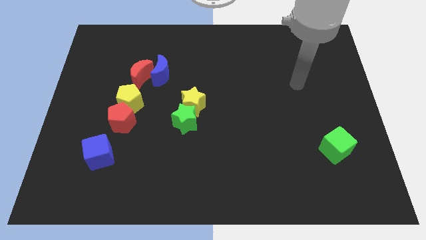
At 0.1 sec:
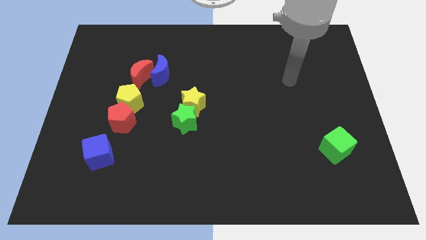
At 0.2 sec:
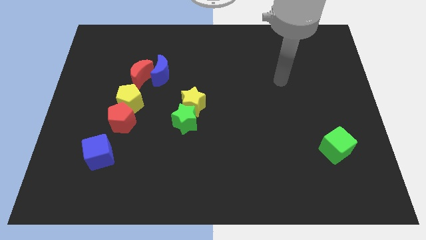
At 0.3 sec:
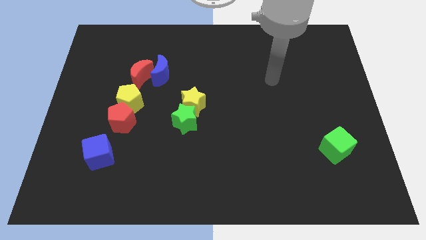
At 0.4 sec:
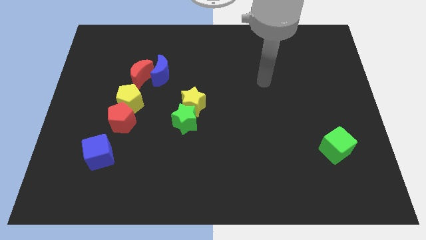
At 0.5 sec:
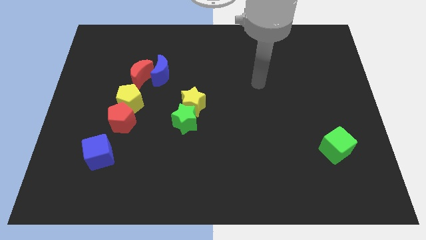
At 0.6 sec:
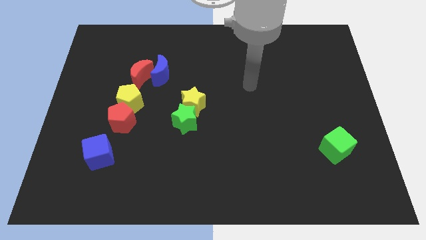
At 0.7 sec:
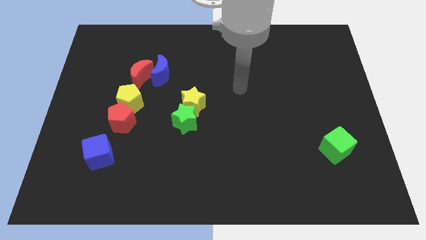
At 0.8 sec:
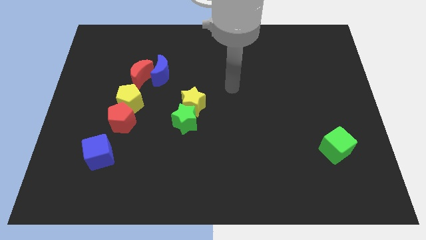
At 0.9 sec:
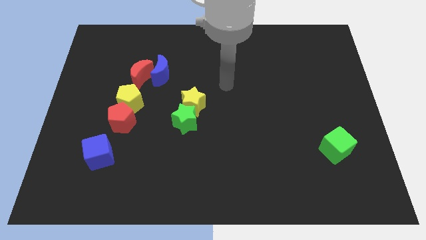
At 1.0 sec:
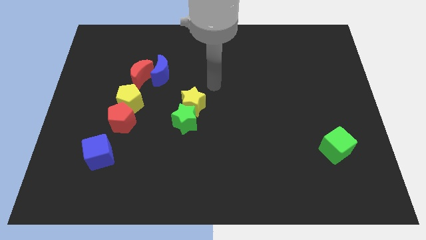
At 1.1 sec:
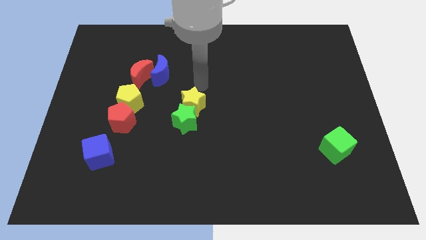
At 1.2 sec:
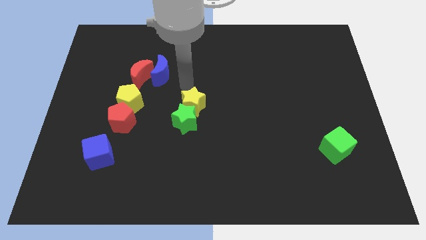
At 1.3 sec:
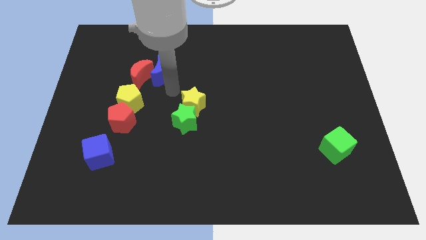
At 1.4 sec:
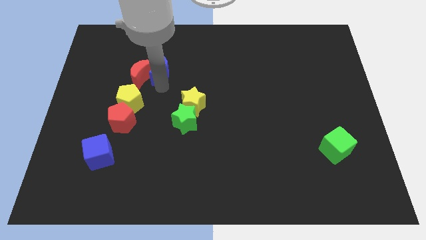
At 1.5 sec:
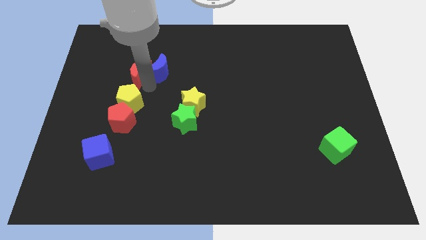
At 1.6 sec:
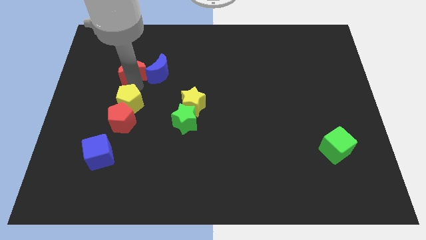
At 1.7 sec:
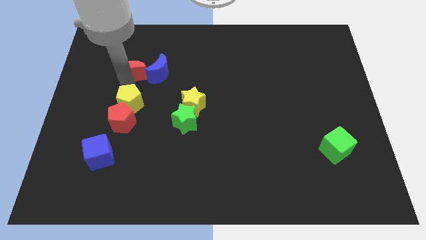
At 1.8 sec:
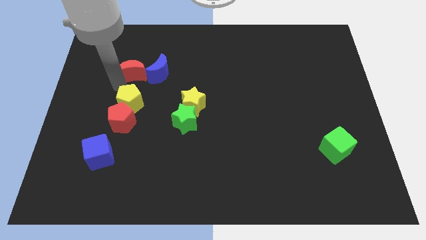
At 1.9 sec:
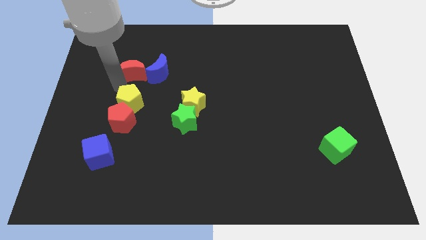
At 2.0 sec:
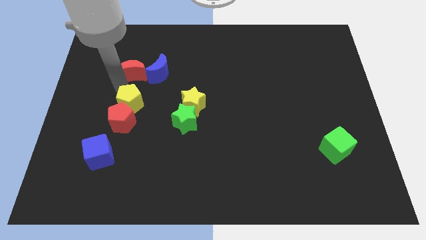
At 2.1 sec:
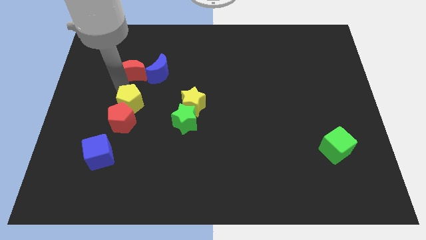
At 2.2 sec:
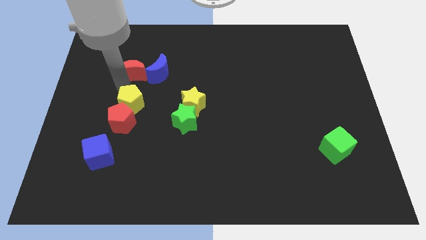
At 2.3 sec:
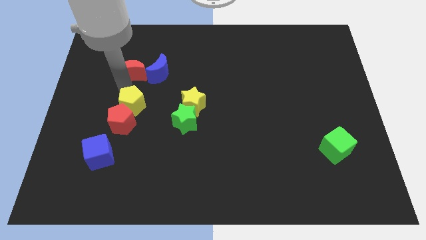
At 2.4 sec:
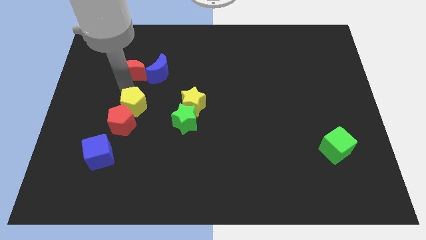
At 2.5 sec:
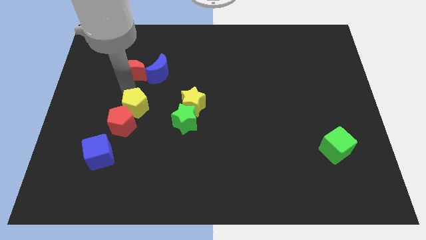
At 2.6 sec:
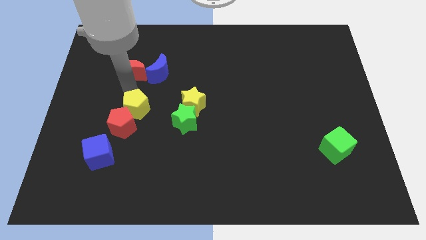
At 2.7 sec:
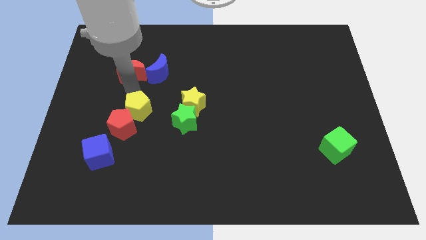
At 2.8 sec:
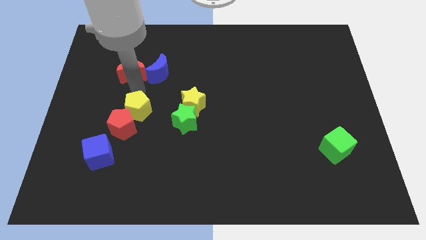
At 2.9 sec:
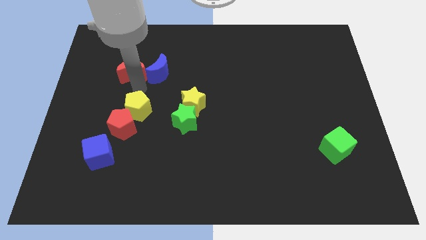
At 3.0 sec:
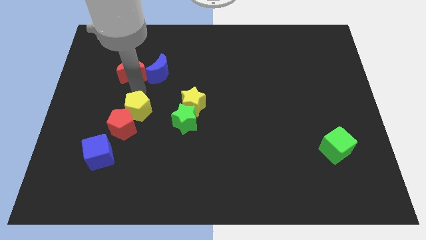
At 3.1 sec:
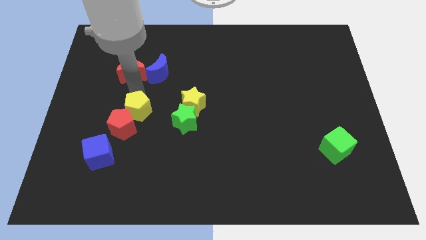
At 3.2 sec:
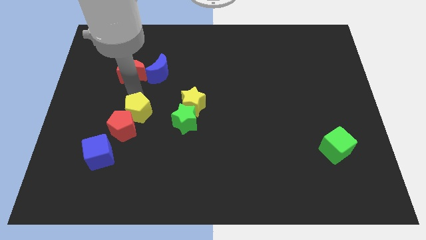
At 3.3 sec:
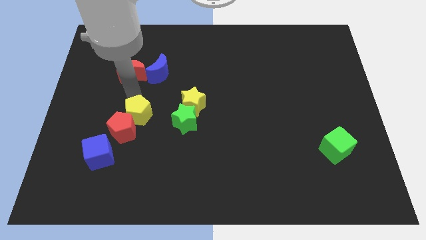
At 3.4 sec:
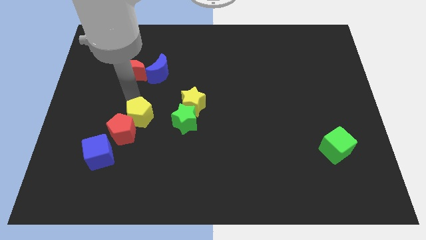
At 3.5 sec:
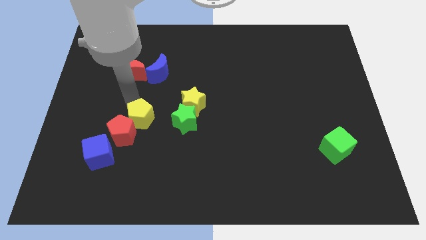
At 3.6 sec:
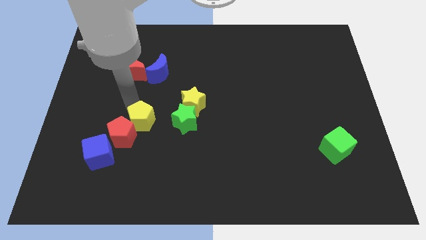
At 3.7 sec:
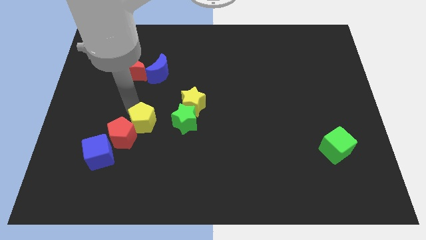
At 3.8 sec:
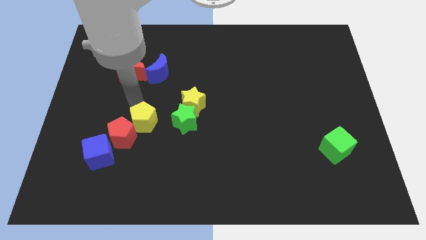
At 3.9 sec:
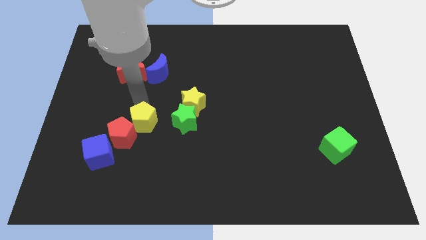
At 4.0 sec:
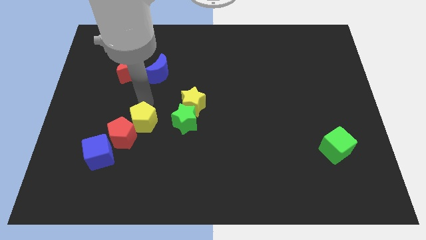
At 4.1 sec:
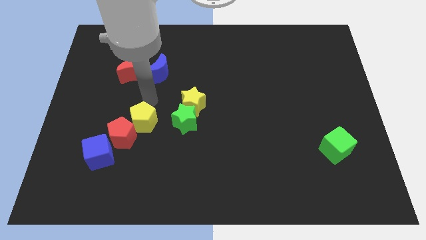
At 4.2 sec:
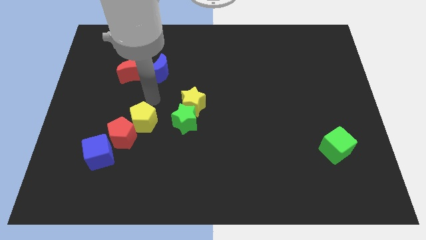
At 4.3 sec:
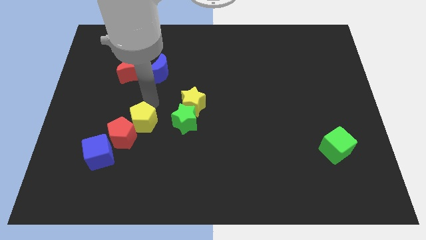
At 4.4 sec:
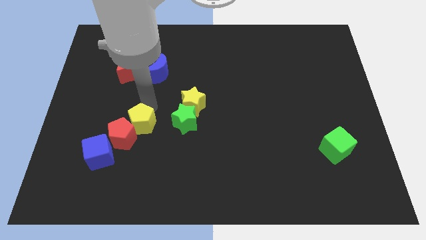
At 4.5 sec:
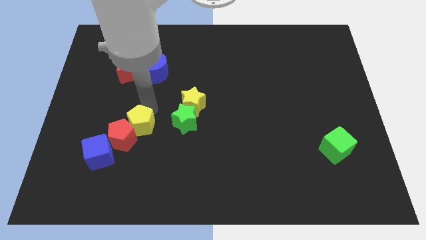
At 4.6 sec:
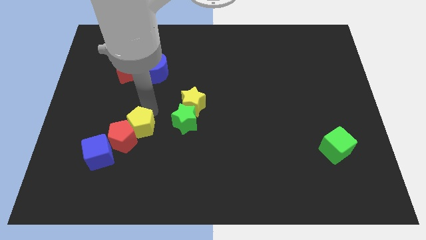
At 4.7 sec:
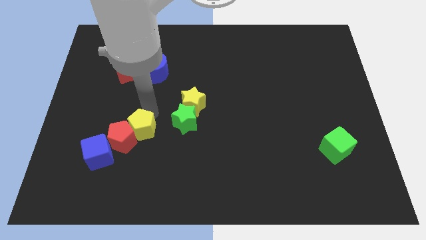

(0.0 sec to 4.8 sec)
slightly push the yellow pentagon downwards

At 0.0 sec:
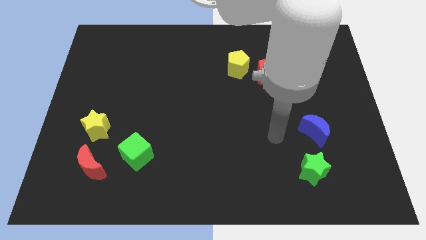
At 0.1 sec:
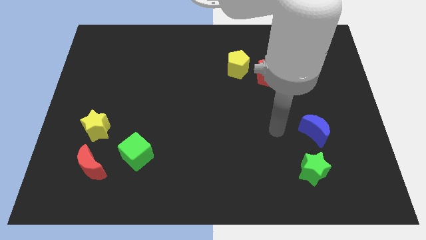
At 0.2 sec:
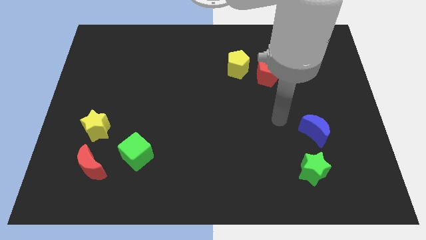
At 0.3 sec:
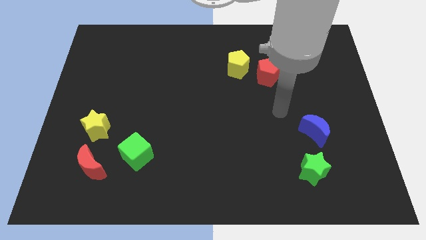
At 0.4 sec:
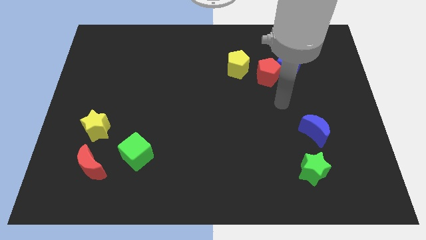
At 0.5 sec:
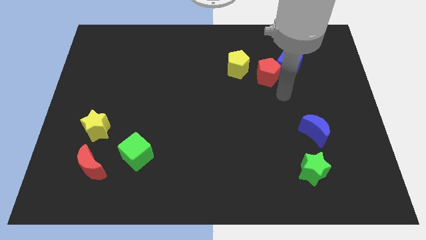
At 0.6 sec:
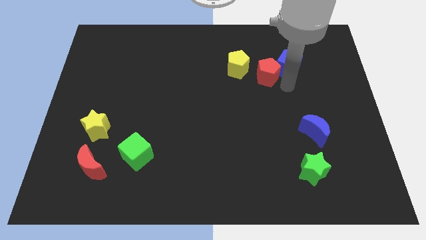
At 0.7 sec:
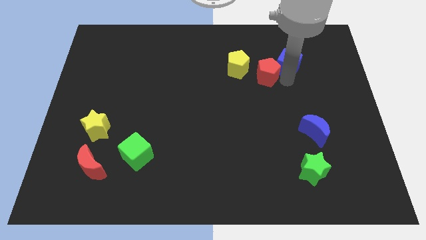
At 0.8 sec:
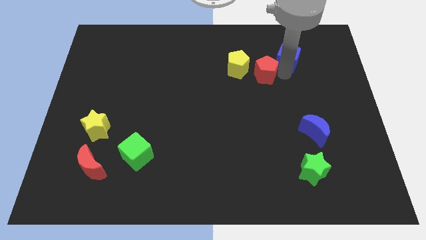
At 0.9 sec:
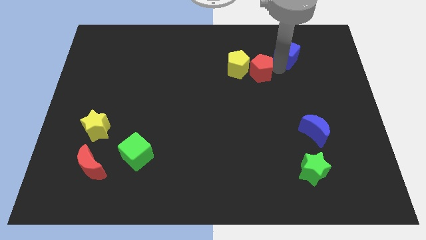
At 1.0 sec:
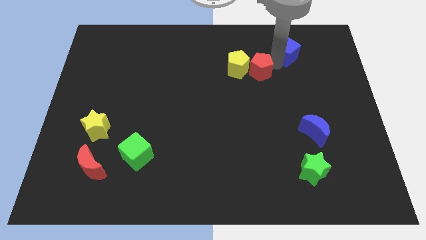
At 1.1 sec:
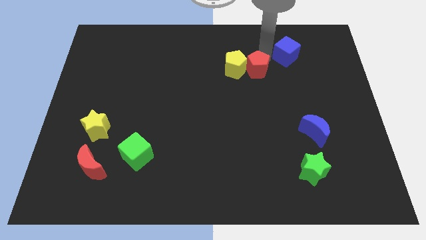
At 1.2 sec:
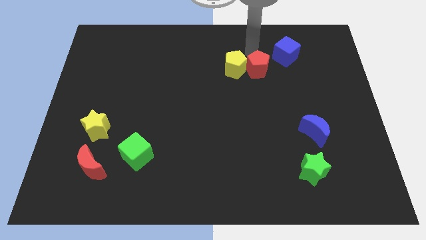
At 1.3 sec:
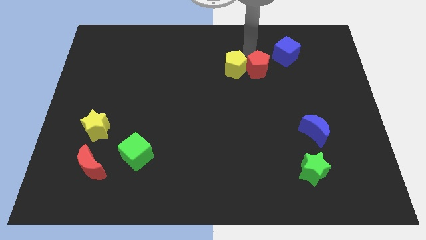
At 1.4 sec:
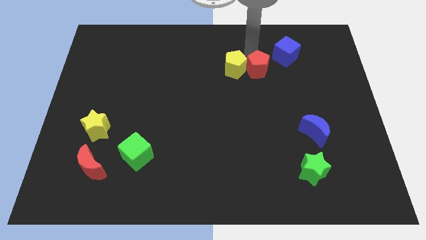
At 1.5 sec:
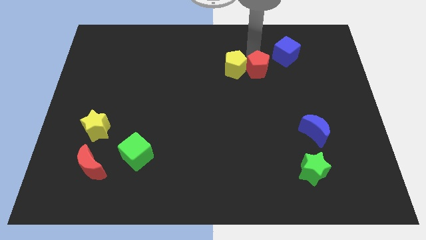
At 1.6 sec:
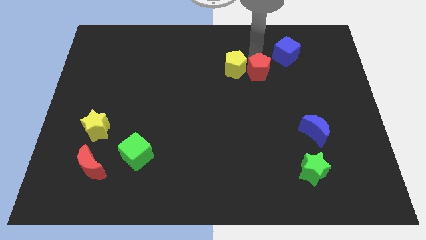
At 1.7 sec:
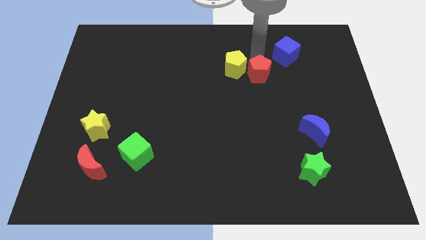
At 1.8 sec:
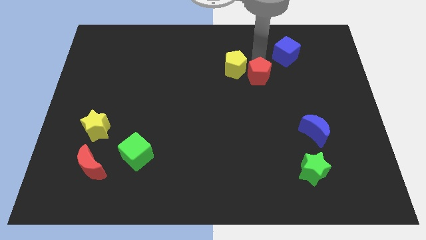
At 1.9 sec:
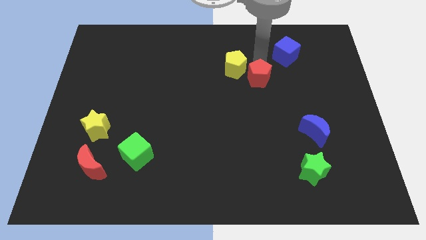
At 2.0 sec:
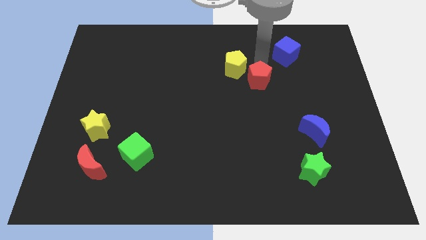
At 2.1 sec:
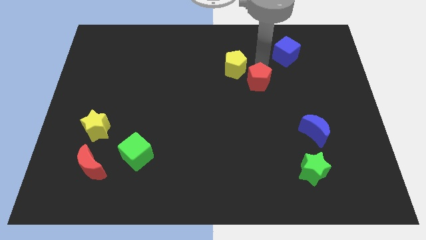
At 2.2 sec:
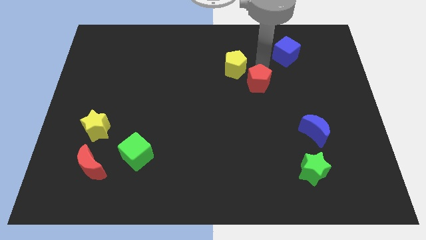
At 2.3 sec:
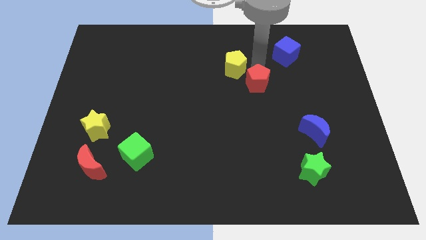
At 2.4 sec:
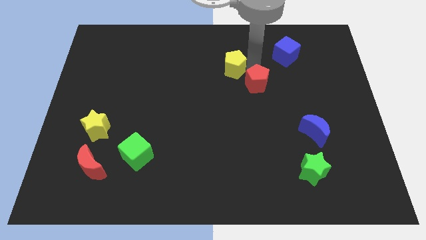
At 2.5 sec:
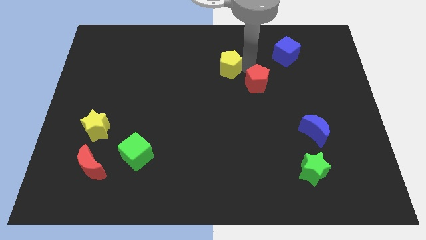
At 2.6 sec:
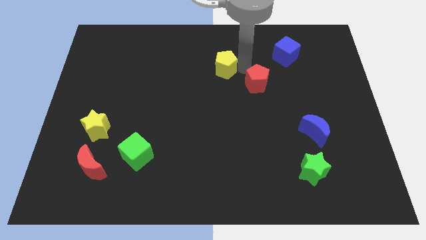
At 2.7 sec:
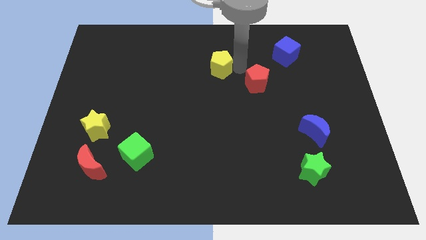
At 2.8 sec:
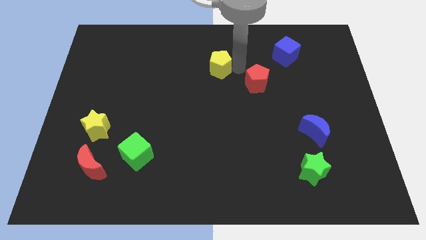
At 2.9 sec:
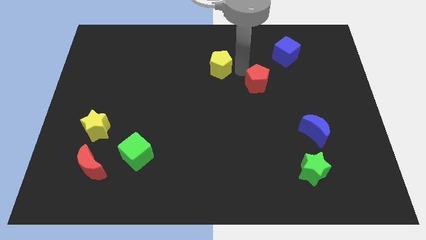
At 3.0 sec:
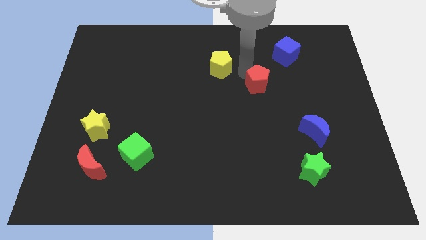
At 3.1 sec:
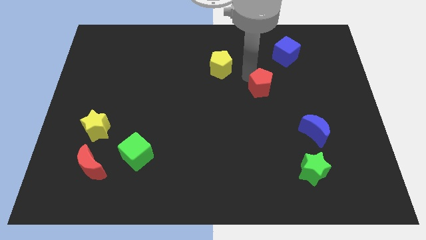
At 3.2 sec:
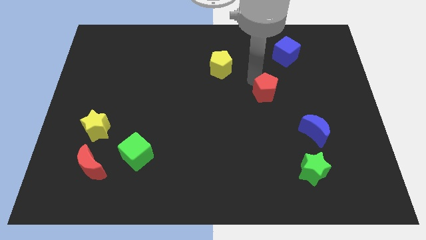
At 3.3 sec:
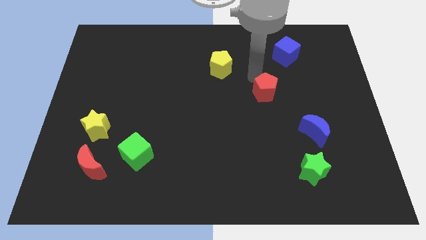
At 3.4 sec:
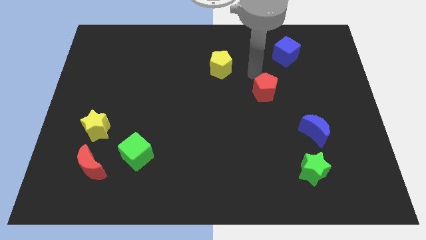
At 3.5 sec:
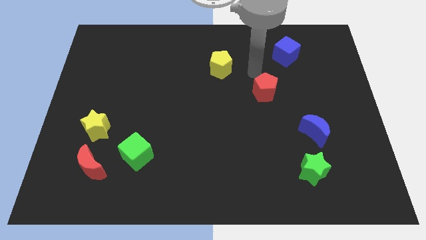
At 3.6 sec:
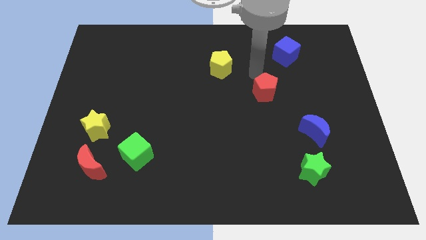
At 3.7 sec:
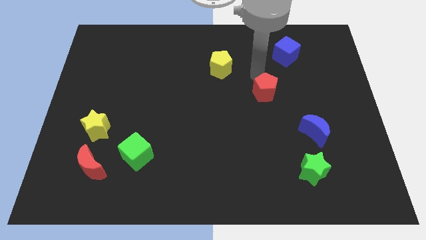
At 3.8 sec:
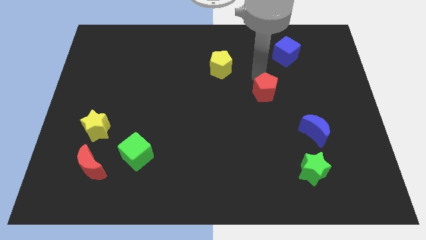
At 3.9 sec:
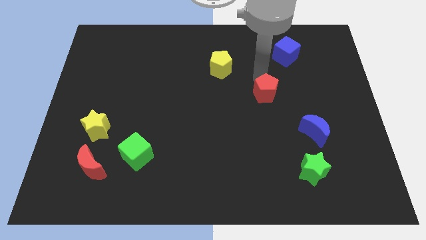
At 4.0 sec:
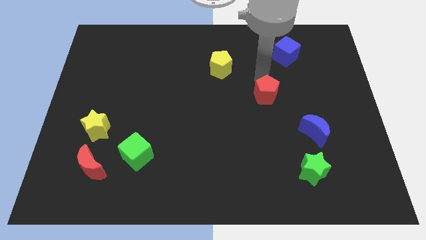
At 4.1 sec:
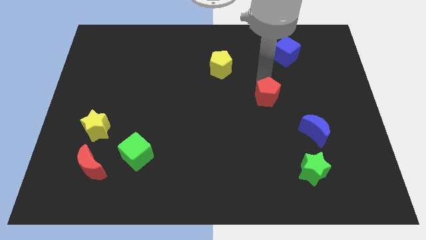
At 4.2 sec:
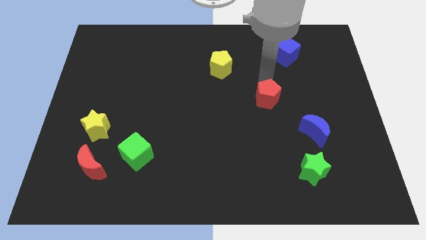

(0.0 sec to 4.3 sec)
slightly push the red pentagon down
